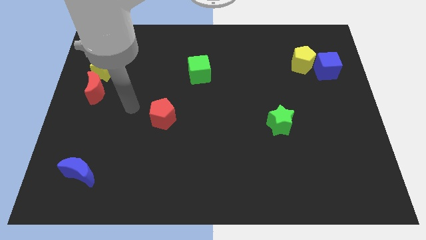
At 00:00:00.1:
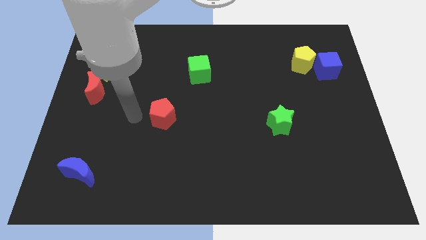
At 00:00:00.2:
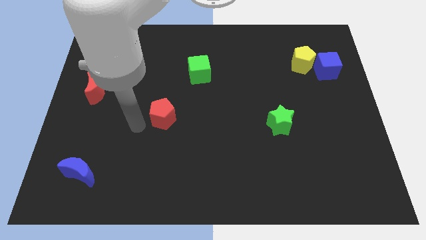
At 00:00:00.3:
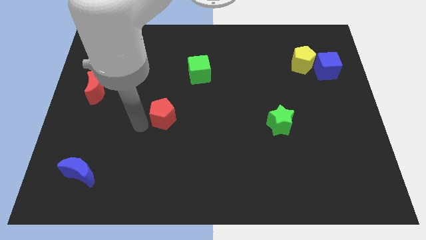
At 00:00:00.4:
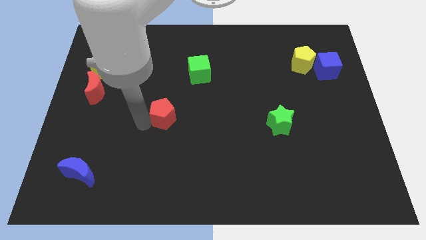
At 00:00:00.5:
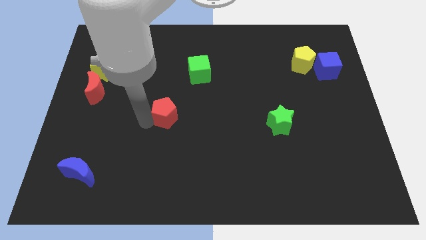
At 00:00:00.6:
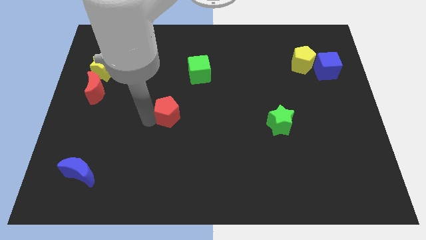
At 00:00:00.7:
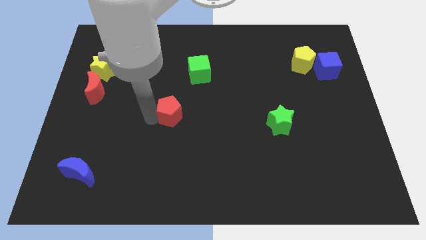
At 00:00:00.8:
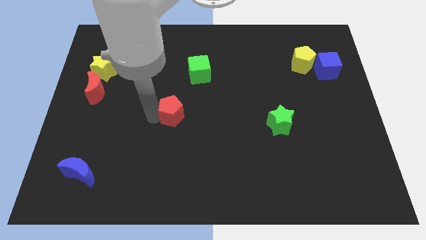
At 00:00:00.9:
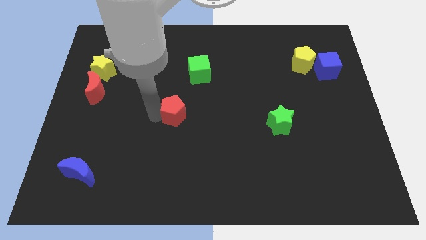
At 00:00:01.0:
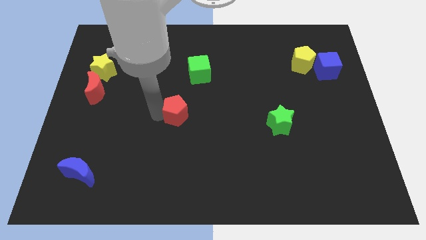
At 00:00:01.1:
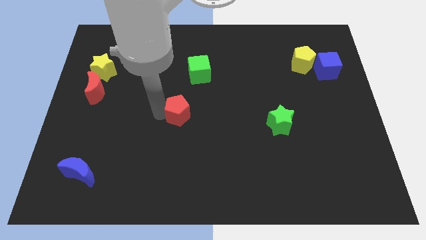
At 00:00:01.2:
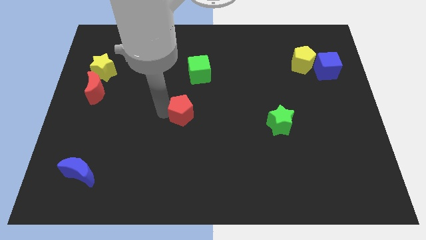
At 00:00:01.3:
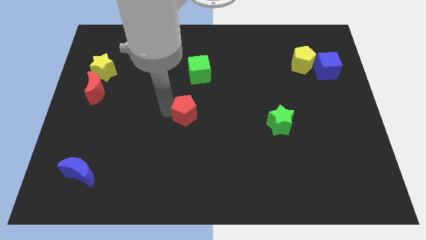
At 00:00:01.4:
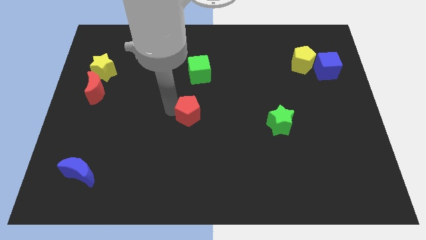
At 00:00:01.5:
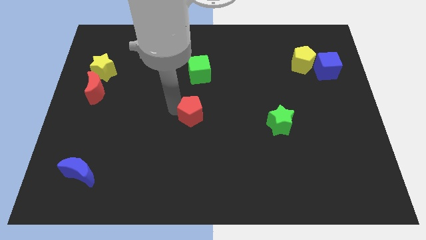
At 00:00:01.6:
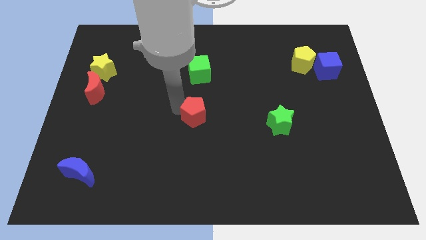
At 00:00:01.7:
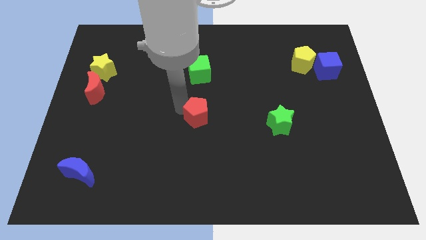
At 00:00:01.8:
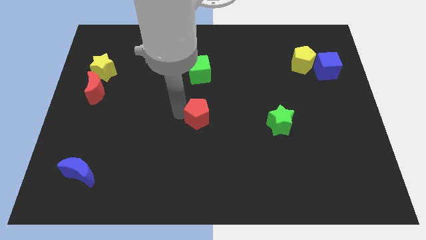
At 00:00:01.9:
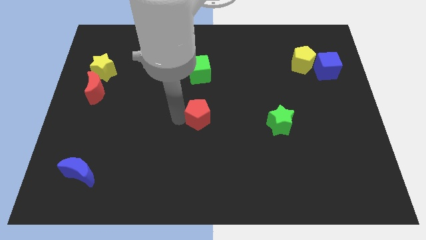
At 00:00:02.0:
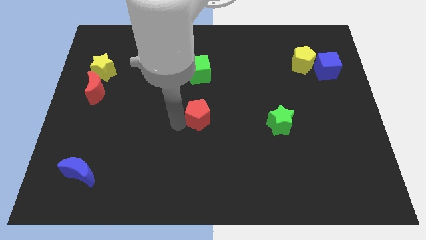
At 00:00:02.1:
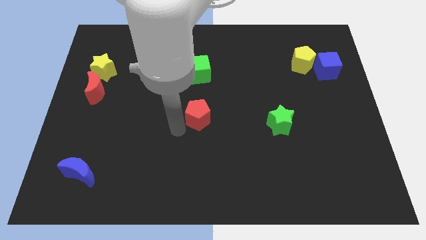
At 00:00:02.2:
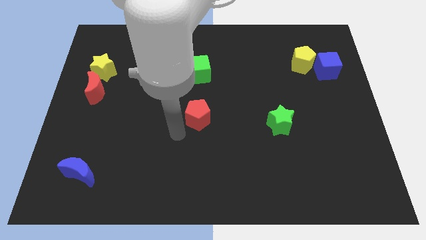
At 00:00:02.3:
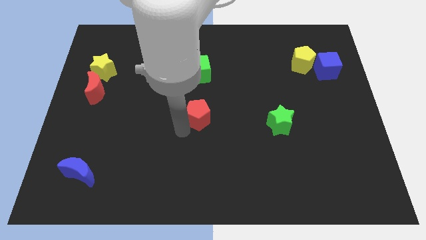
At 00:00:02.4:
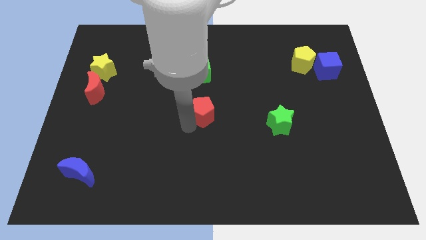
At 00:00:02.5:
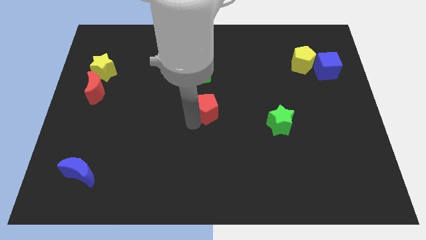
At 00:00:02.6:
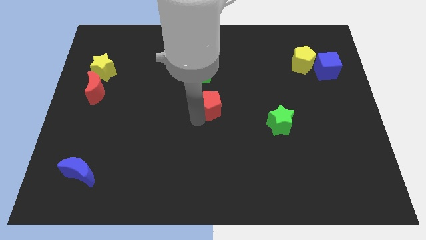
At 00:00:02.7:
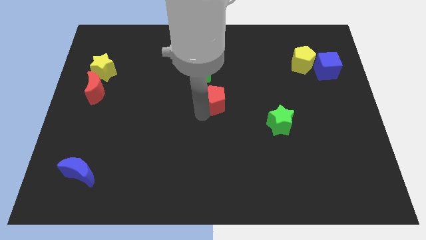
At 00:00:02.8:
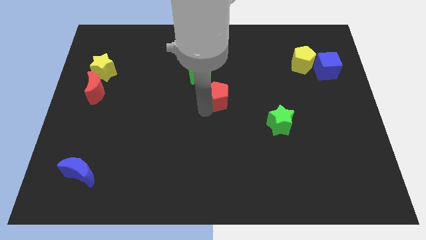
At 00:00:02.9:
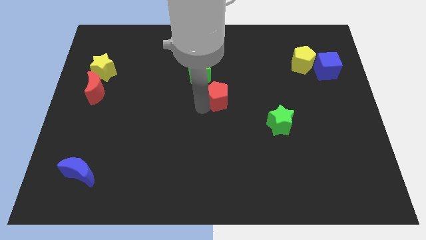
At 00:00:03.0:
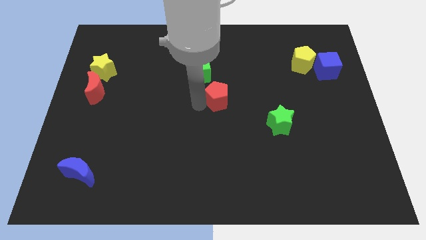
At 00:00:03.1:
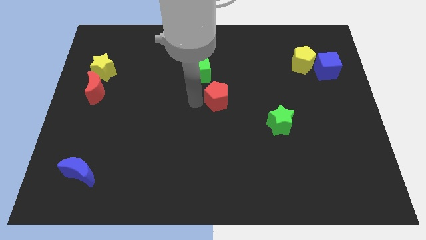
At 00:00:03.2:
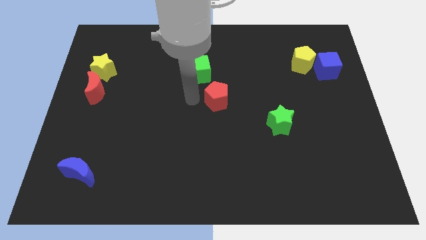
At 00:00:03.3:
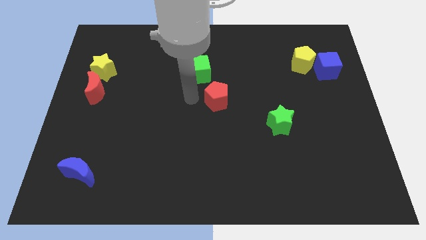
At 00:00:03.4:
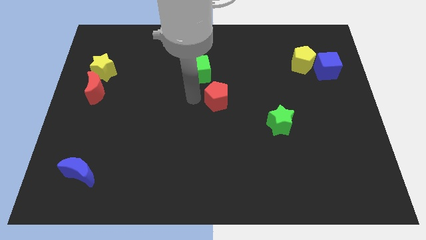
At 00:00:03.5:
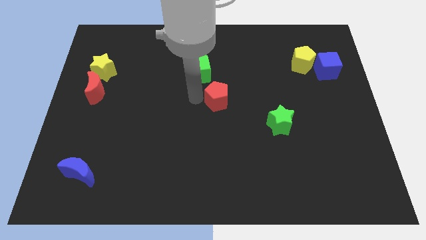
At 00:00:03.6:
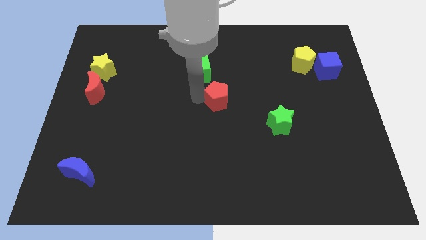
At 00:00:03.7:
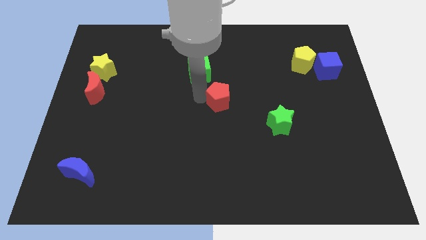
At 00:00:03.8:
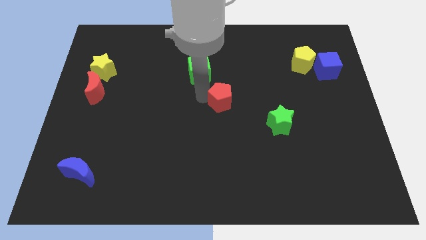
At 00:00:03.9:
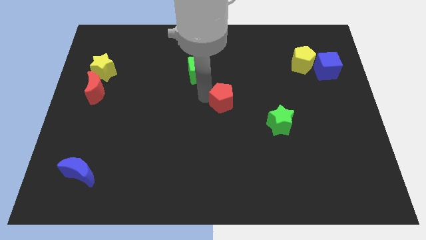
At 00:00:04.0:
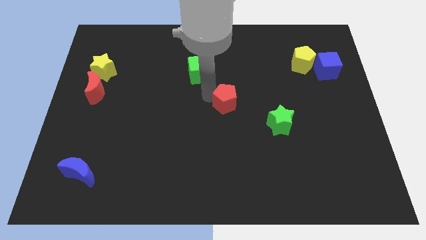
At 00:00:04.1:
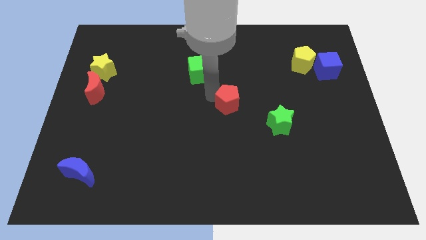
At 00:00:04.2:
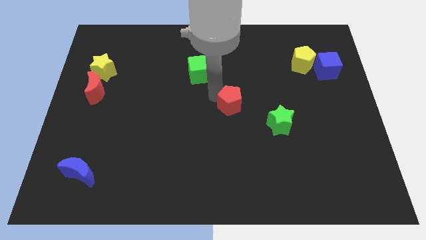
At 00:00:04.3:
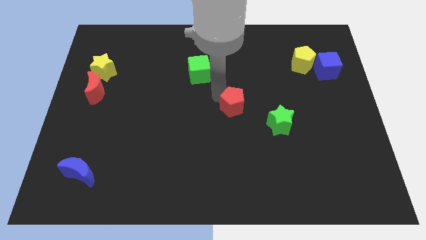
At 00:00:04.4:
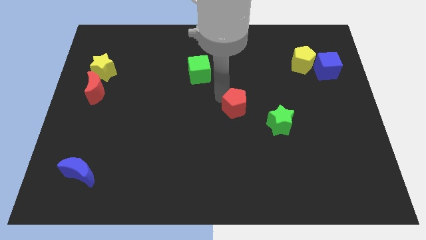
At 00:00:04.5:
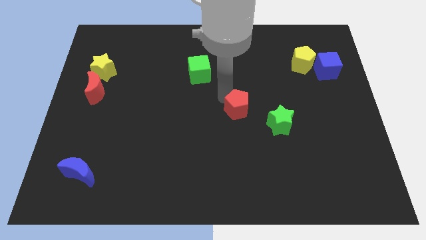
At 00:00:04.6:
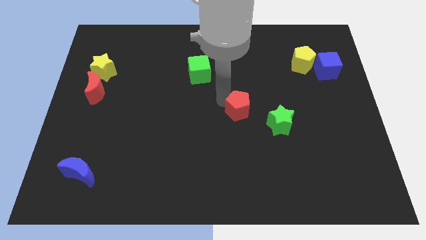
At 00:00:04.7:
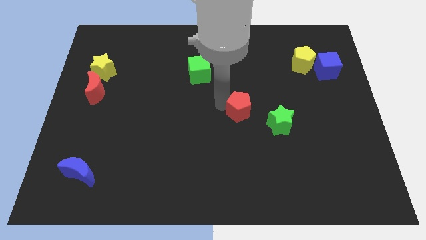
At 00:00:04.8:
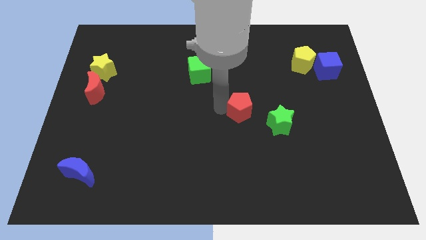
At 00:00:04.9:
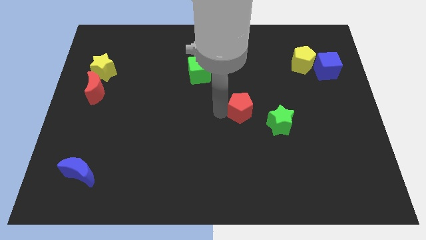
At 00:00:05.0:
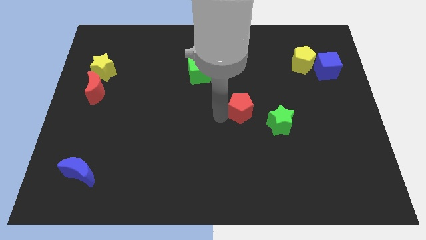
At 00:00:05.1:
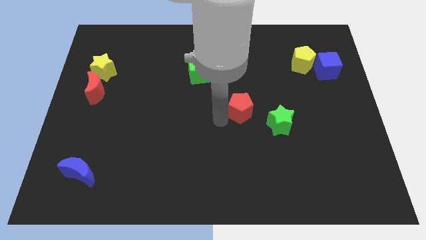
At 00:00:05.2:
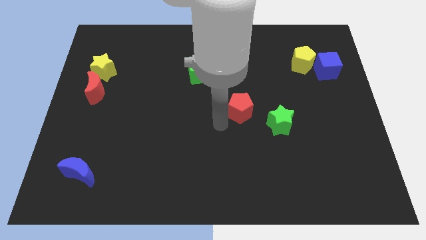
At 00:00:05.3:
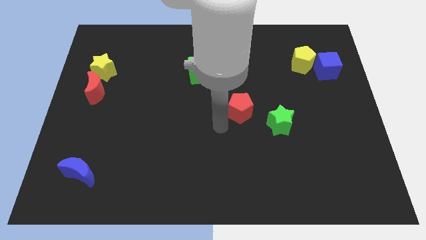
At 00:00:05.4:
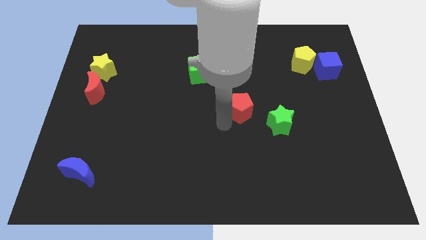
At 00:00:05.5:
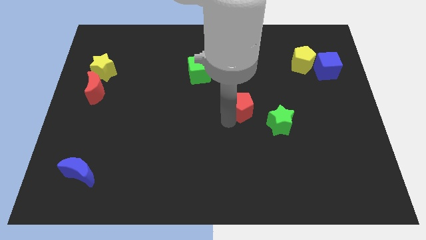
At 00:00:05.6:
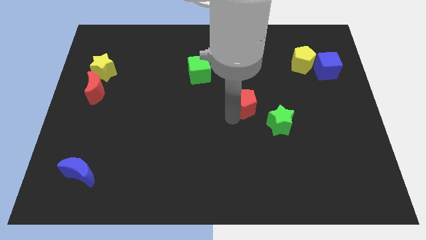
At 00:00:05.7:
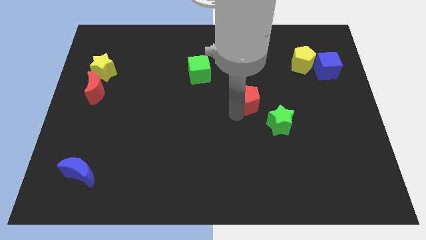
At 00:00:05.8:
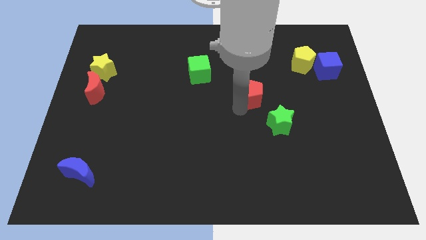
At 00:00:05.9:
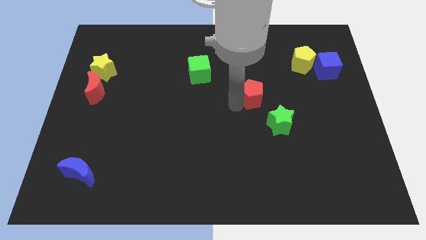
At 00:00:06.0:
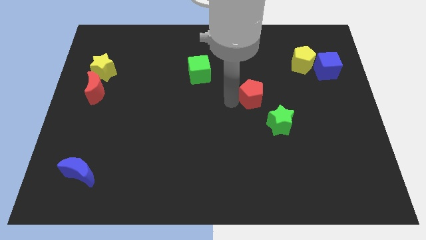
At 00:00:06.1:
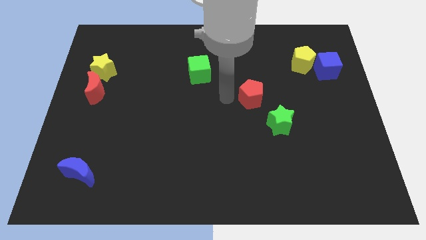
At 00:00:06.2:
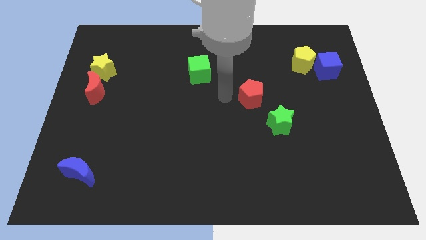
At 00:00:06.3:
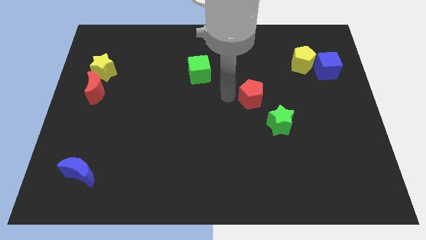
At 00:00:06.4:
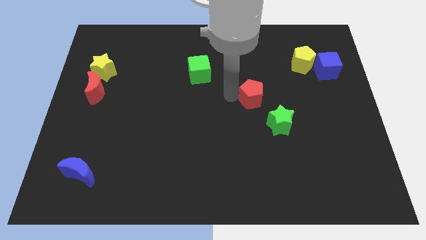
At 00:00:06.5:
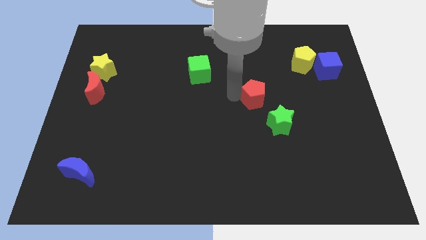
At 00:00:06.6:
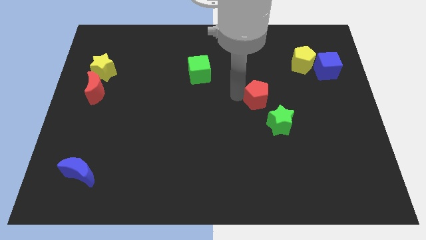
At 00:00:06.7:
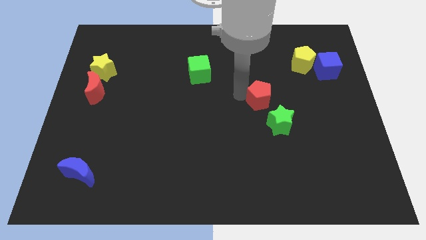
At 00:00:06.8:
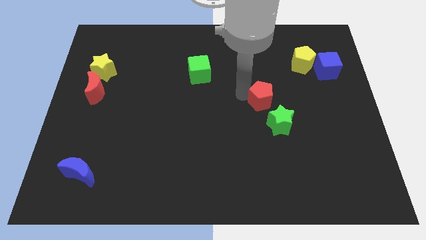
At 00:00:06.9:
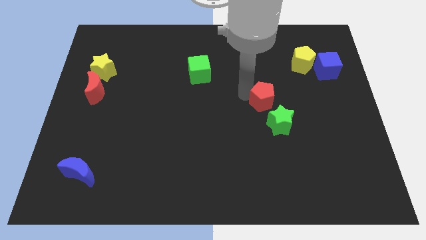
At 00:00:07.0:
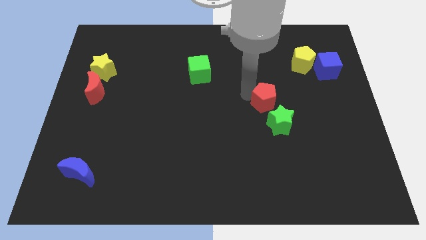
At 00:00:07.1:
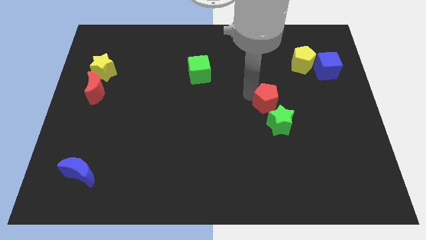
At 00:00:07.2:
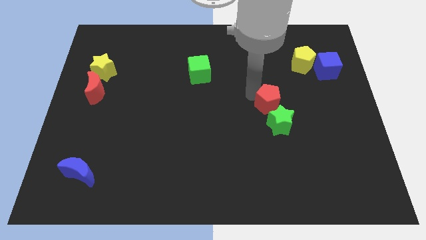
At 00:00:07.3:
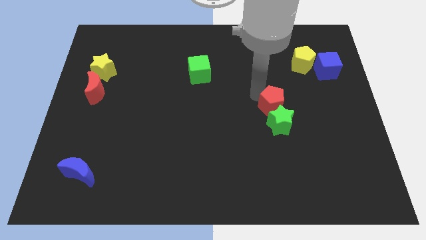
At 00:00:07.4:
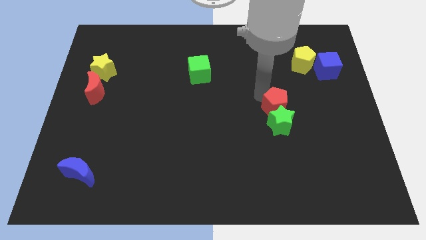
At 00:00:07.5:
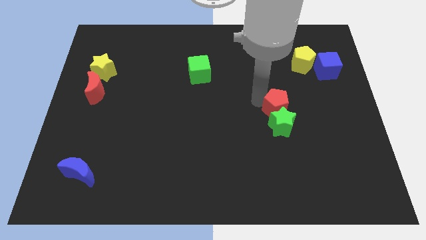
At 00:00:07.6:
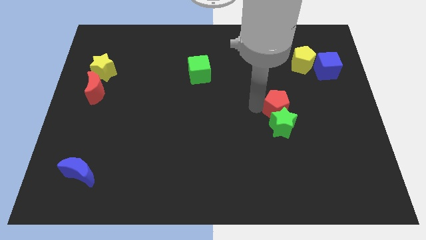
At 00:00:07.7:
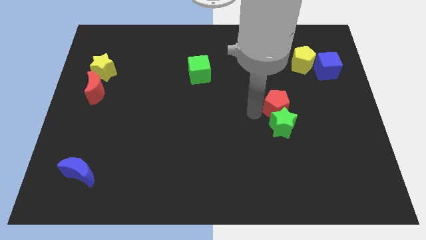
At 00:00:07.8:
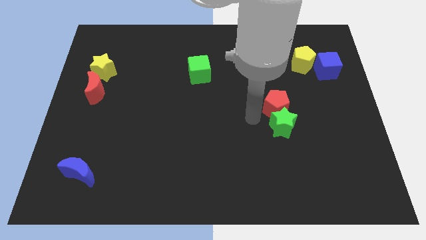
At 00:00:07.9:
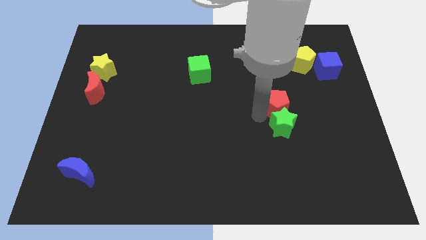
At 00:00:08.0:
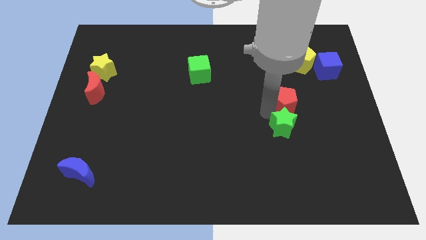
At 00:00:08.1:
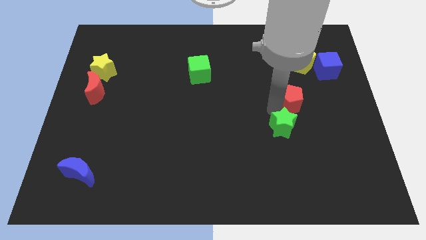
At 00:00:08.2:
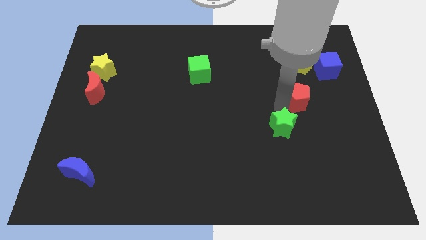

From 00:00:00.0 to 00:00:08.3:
slide the red pentagon to the bottom of the yellow pentagon

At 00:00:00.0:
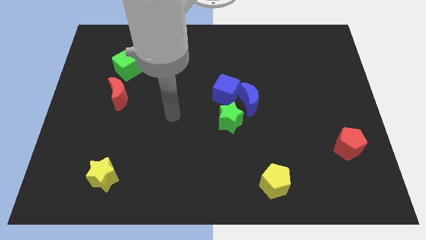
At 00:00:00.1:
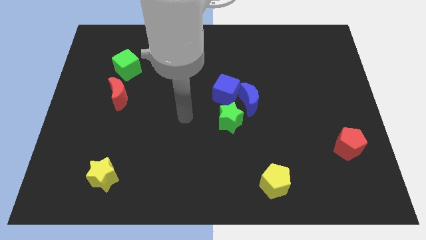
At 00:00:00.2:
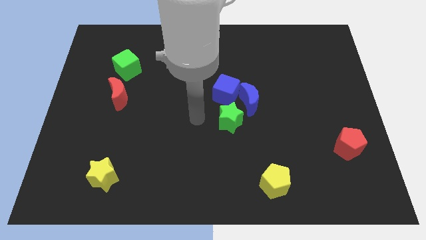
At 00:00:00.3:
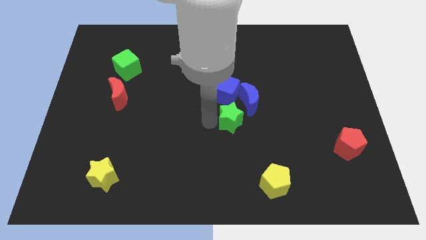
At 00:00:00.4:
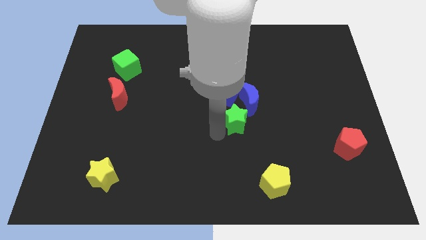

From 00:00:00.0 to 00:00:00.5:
slide the blue moon above the green star
